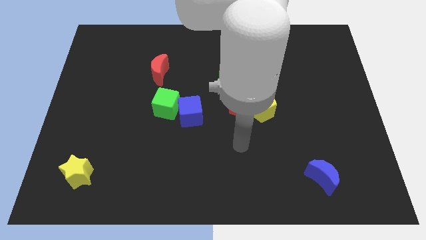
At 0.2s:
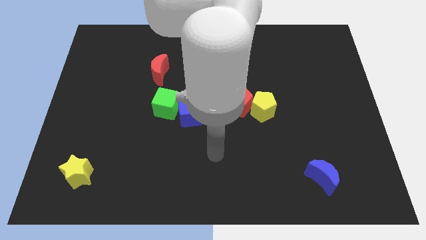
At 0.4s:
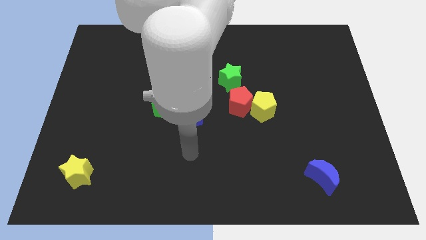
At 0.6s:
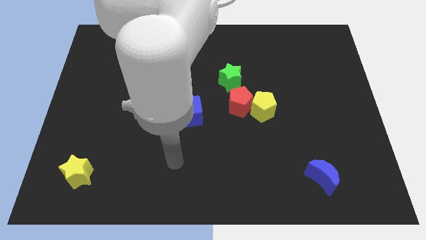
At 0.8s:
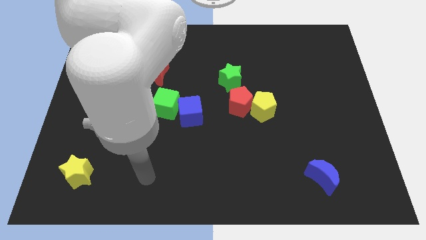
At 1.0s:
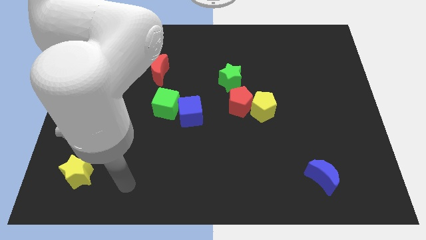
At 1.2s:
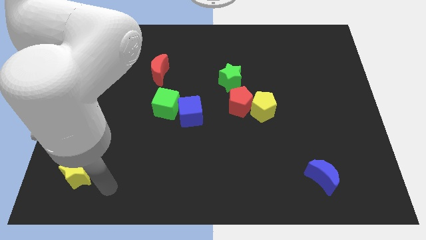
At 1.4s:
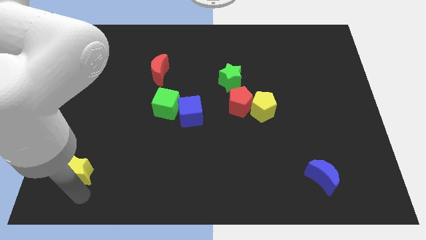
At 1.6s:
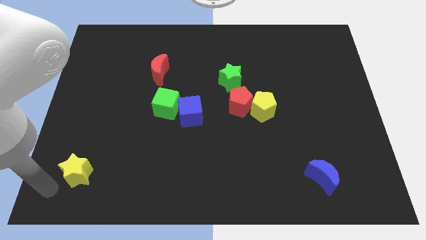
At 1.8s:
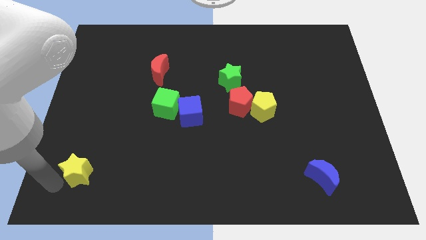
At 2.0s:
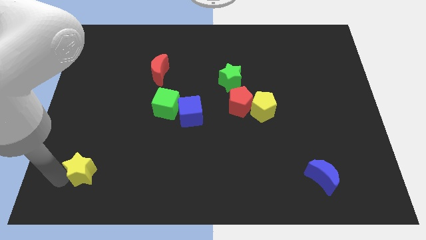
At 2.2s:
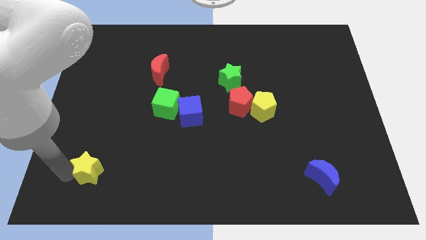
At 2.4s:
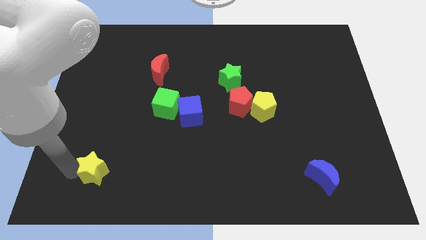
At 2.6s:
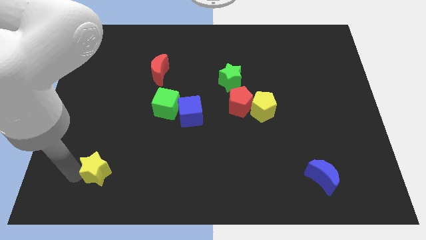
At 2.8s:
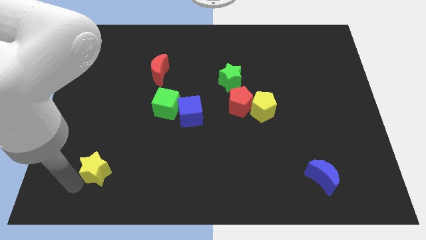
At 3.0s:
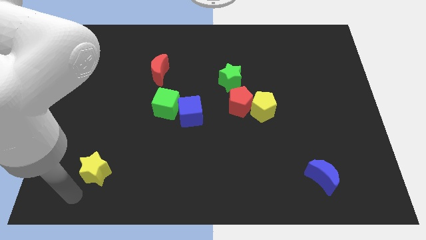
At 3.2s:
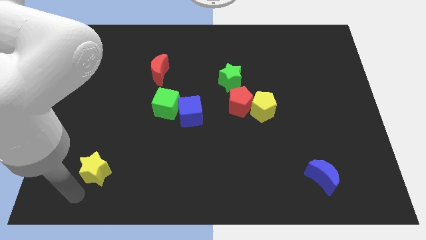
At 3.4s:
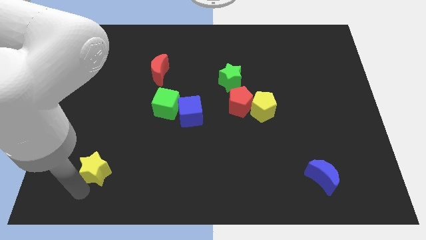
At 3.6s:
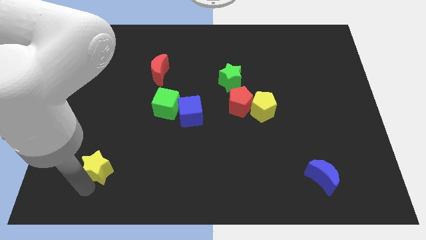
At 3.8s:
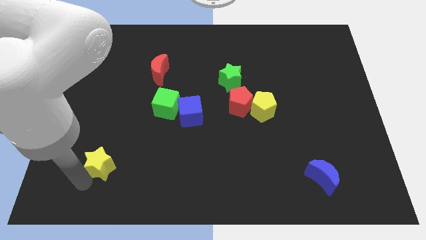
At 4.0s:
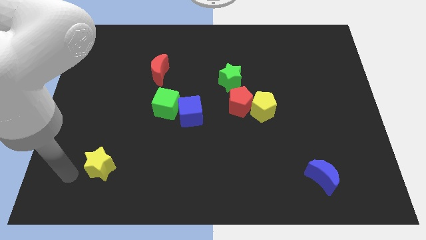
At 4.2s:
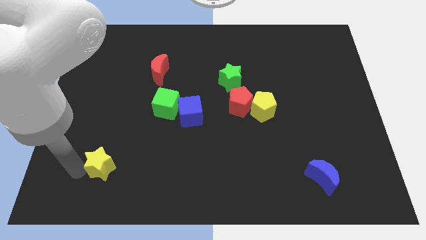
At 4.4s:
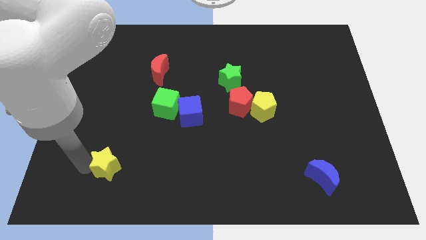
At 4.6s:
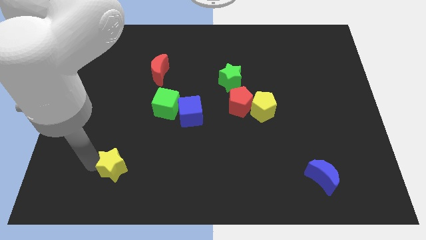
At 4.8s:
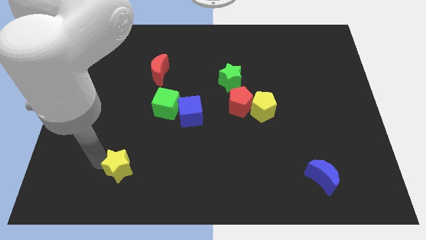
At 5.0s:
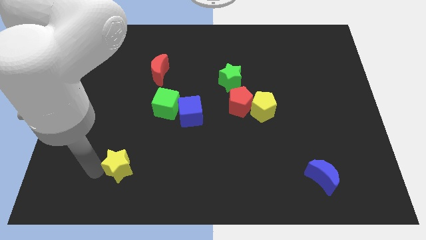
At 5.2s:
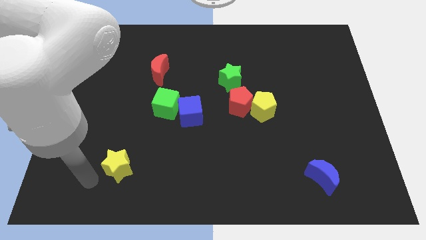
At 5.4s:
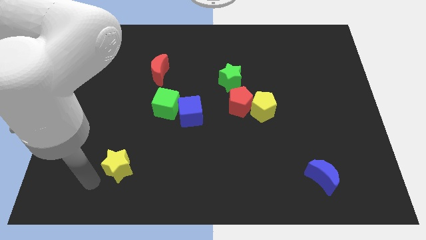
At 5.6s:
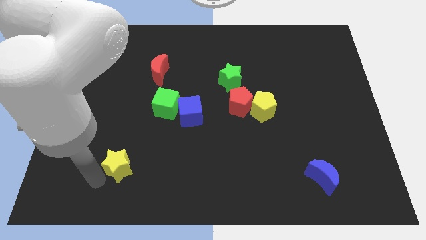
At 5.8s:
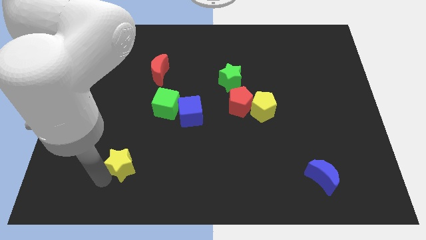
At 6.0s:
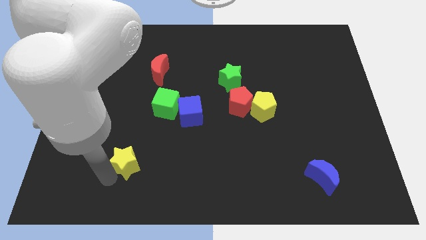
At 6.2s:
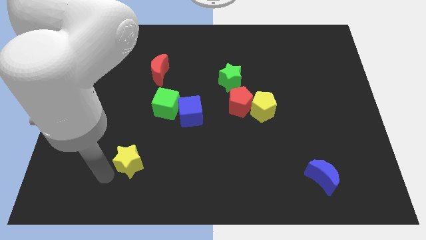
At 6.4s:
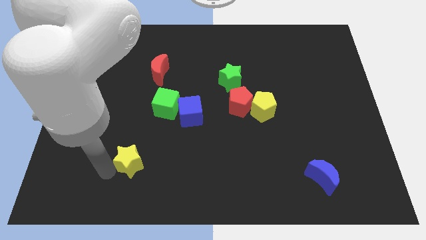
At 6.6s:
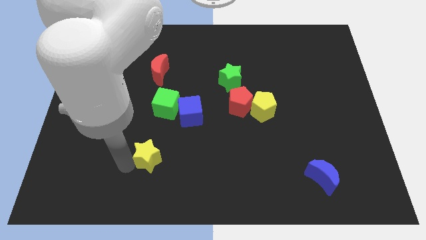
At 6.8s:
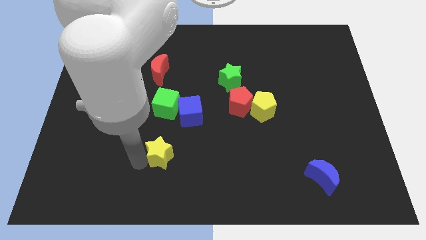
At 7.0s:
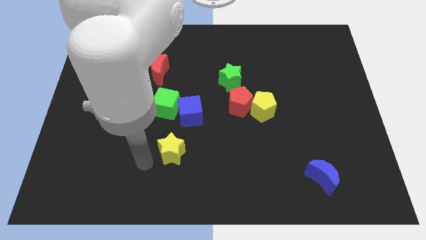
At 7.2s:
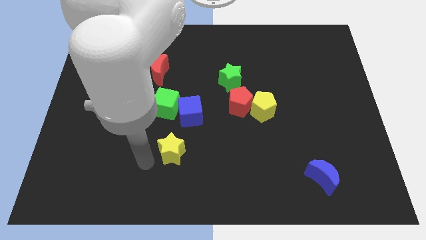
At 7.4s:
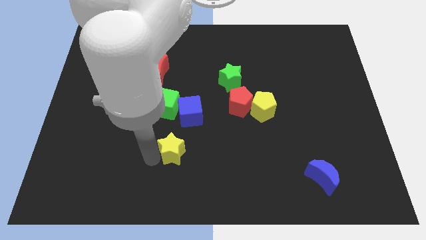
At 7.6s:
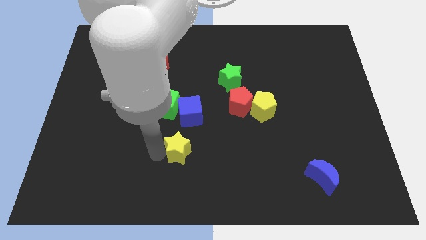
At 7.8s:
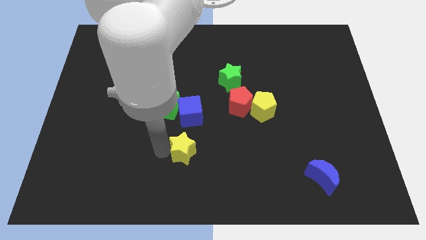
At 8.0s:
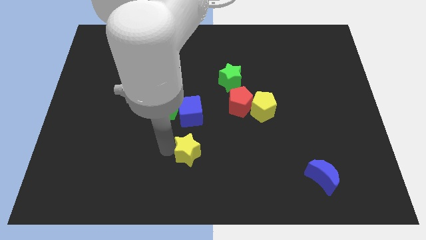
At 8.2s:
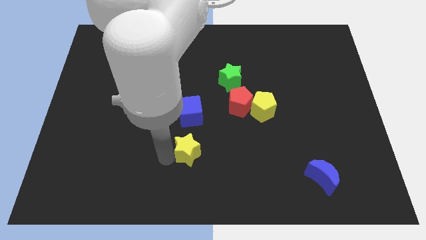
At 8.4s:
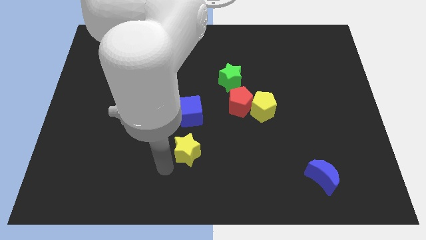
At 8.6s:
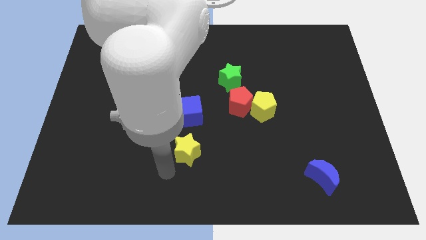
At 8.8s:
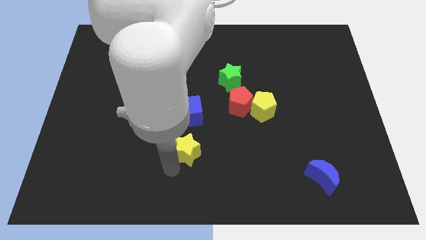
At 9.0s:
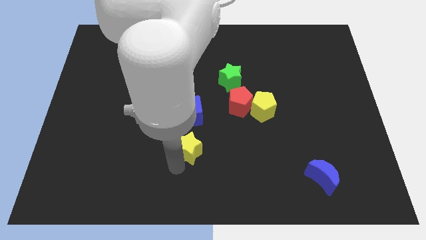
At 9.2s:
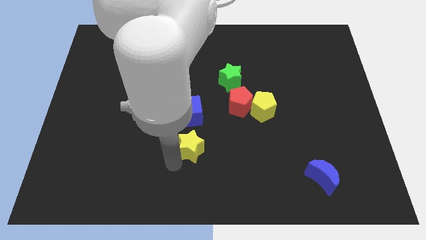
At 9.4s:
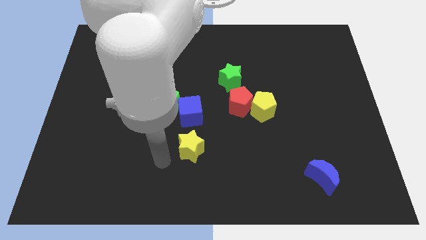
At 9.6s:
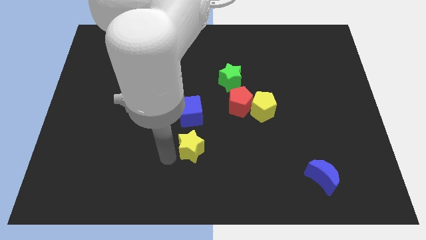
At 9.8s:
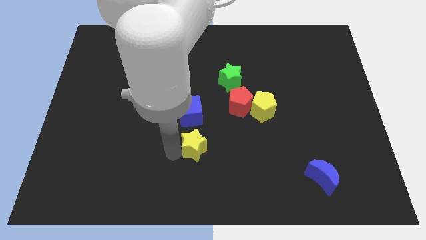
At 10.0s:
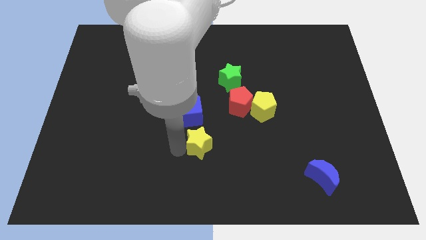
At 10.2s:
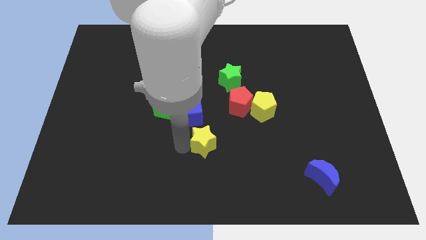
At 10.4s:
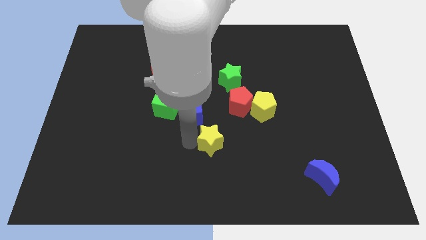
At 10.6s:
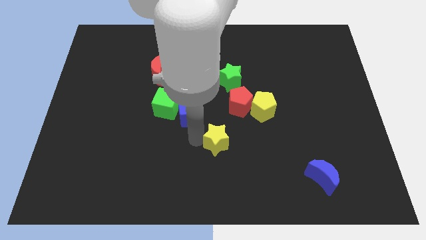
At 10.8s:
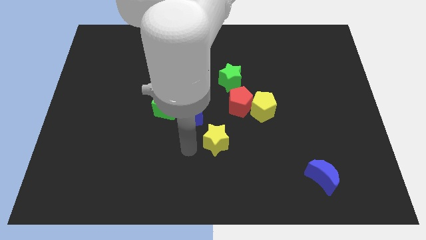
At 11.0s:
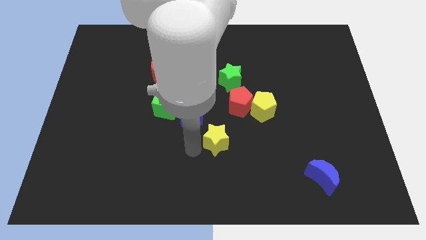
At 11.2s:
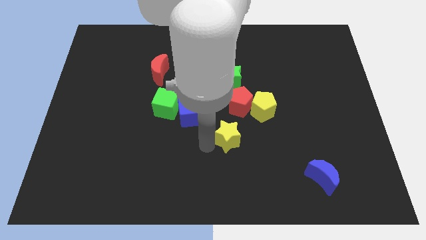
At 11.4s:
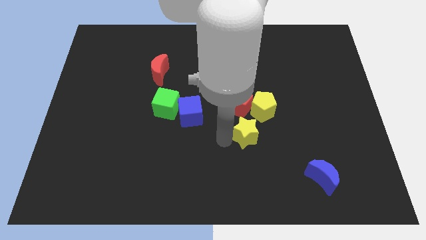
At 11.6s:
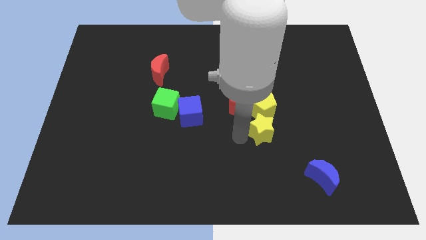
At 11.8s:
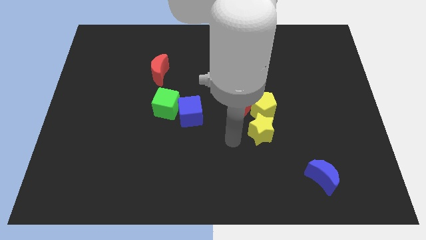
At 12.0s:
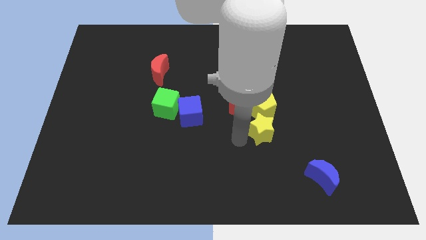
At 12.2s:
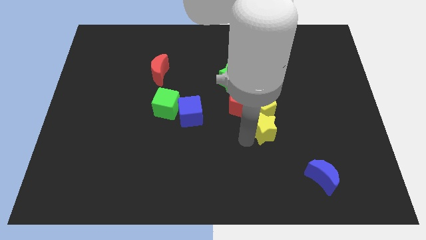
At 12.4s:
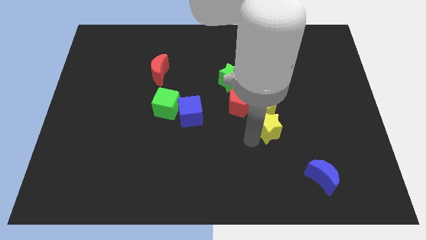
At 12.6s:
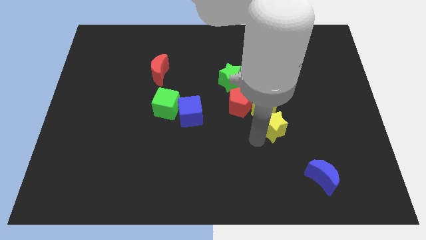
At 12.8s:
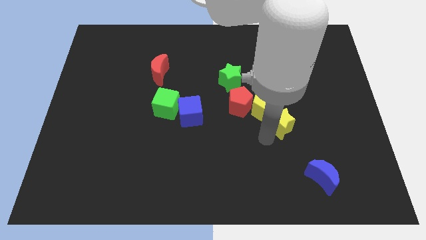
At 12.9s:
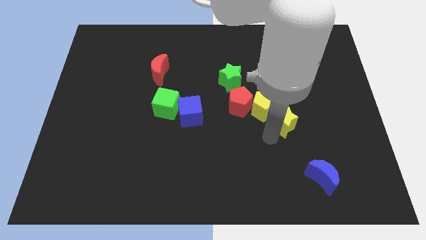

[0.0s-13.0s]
put the yellow star just right of the yellow pentagon
